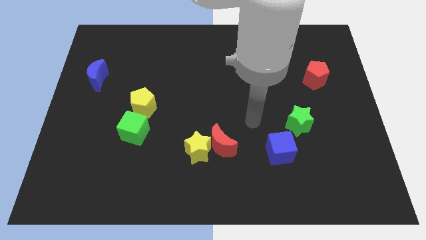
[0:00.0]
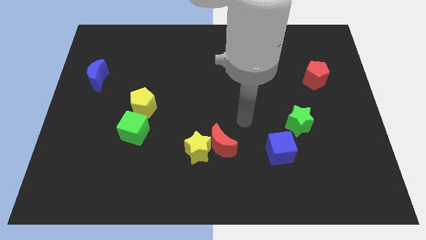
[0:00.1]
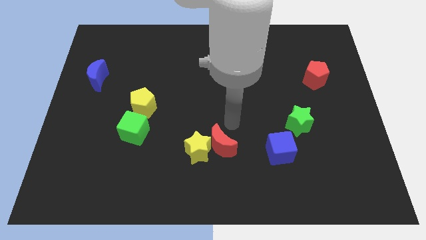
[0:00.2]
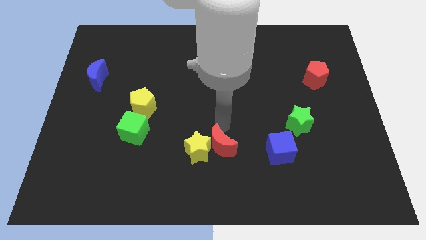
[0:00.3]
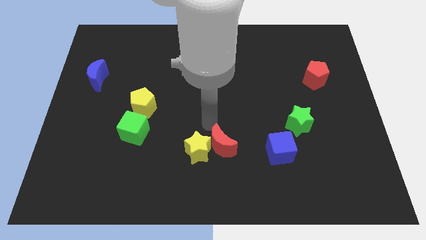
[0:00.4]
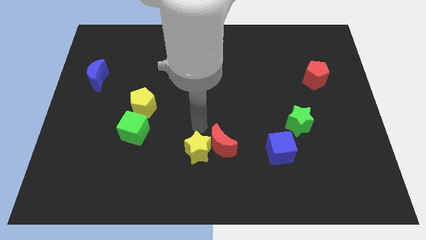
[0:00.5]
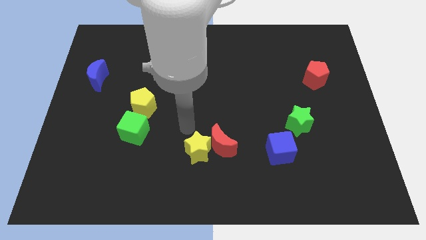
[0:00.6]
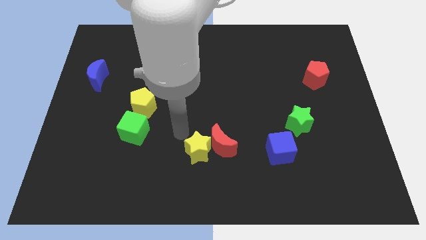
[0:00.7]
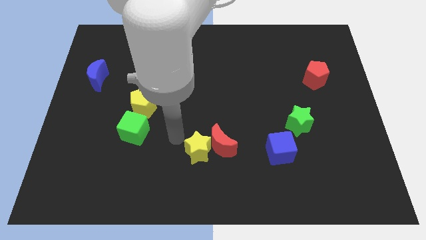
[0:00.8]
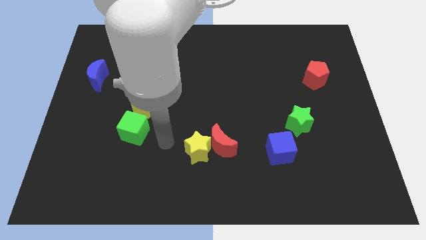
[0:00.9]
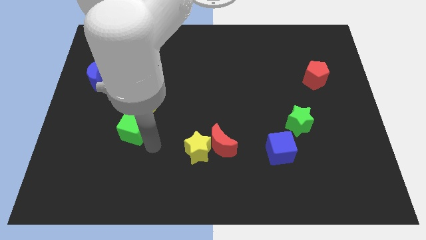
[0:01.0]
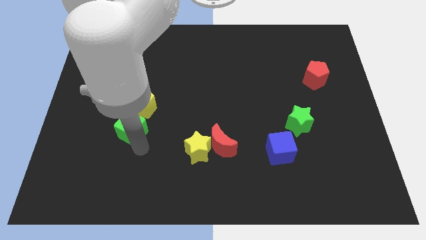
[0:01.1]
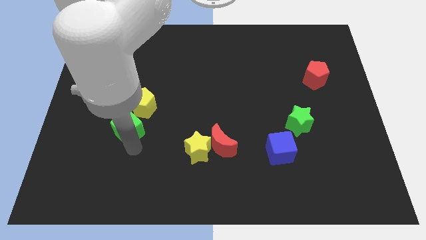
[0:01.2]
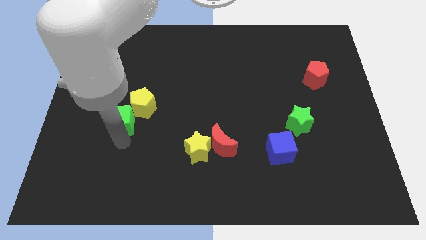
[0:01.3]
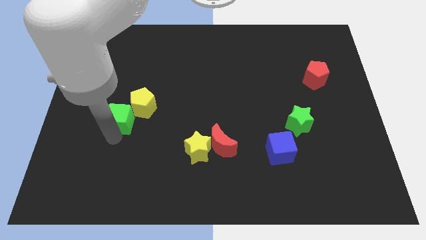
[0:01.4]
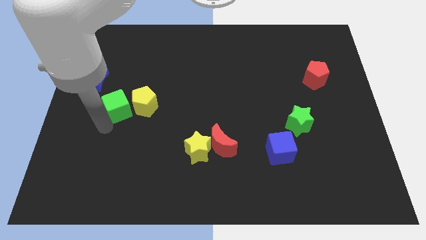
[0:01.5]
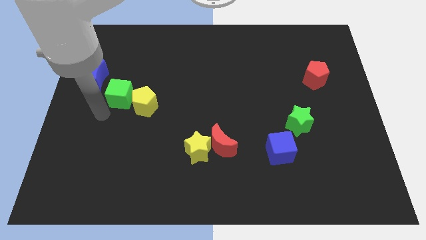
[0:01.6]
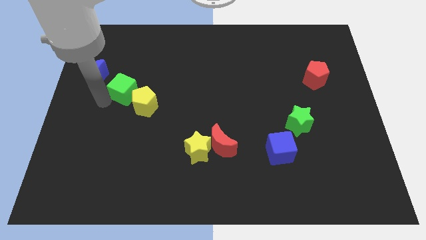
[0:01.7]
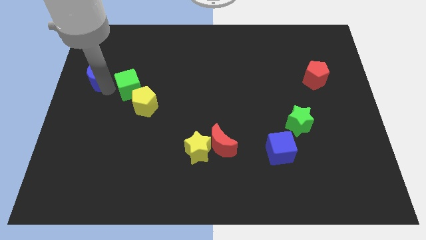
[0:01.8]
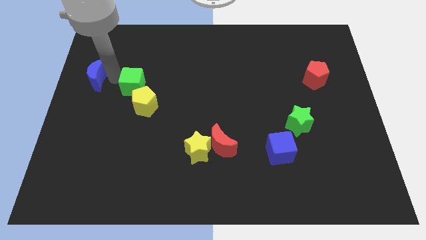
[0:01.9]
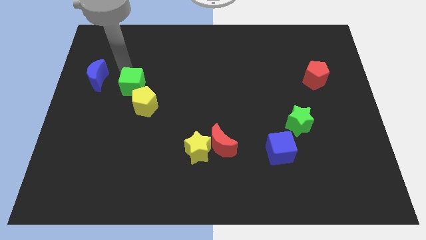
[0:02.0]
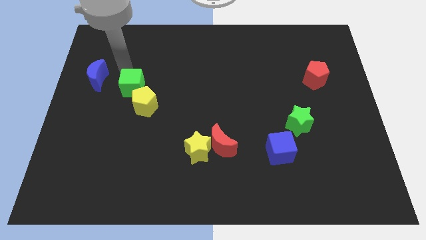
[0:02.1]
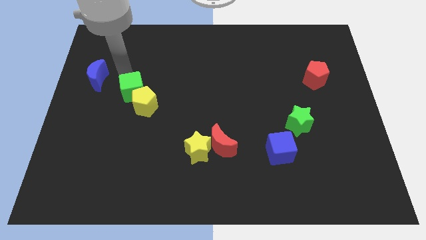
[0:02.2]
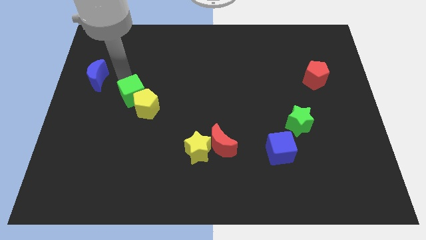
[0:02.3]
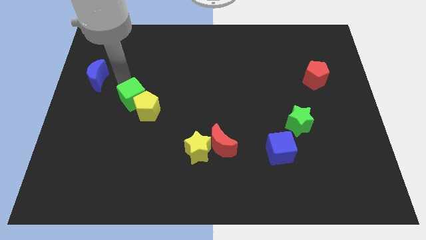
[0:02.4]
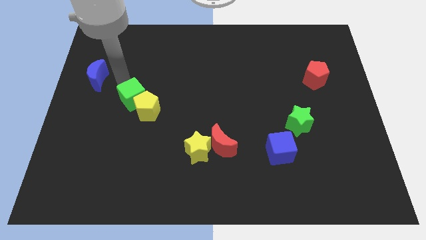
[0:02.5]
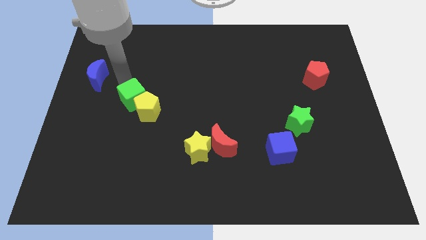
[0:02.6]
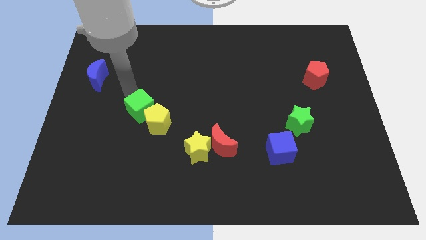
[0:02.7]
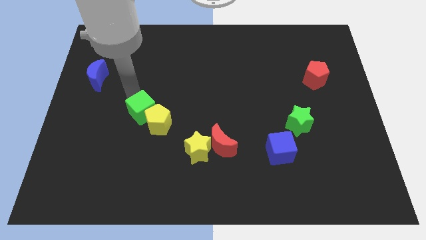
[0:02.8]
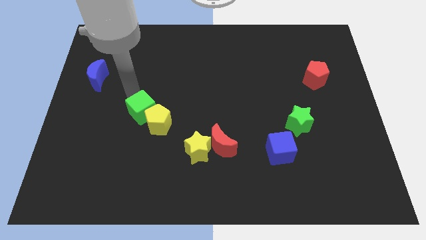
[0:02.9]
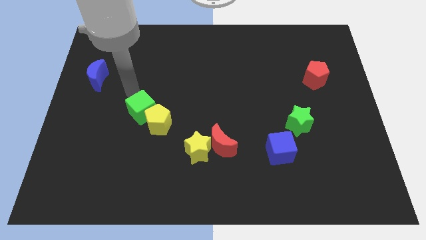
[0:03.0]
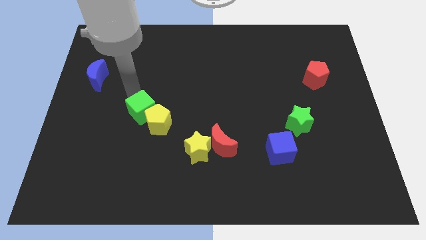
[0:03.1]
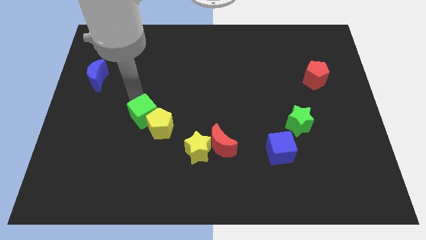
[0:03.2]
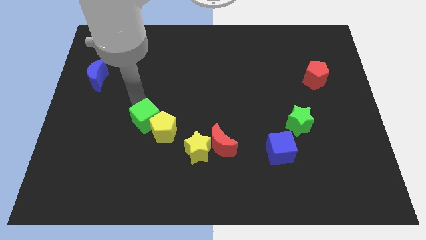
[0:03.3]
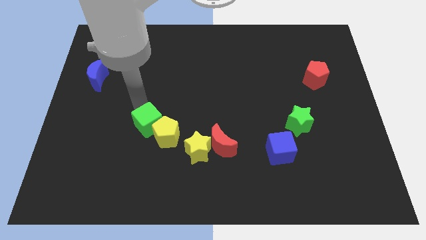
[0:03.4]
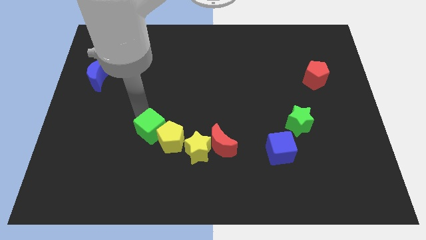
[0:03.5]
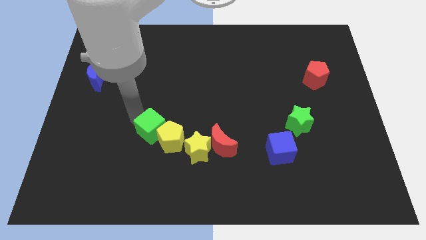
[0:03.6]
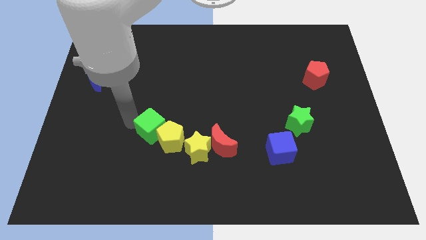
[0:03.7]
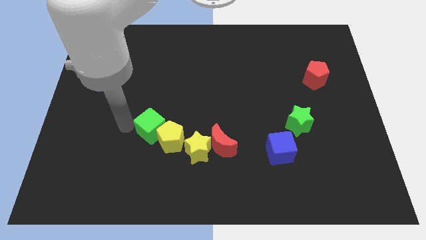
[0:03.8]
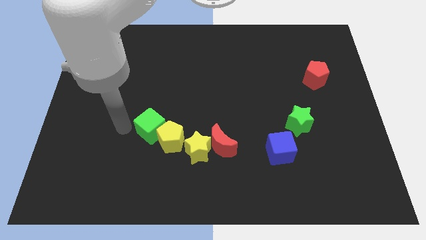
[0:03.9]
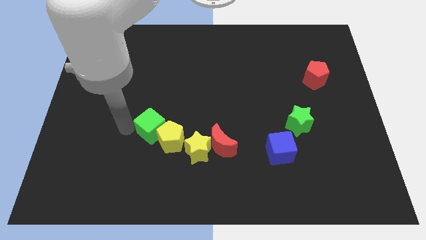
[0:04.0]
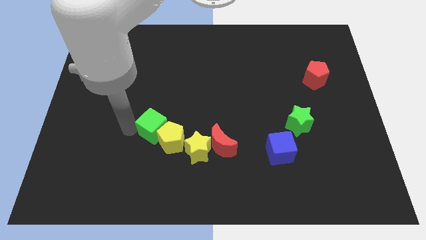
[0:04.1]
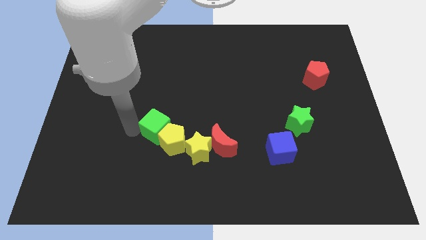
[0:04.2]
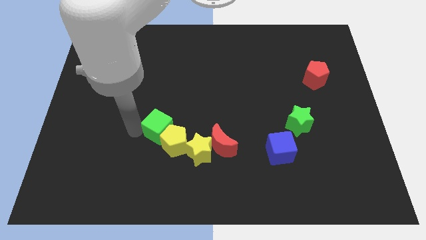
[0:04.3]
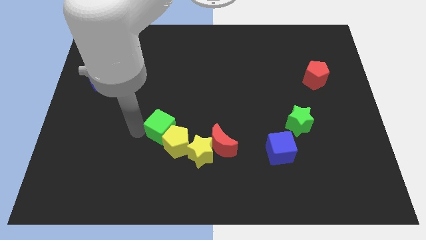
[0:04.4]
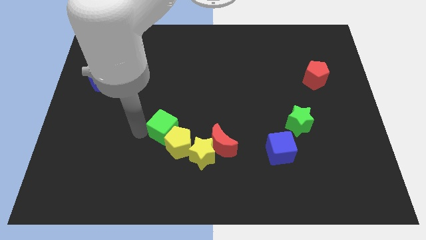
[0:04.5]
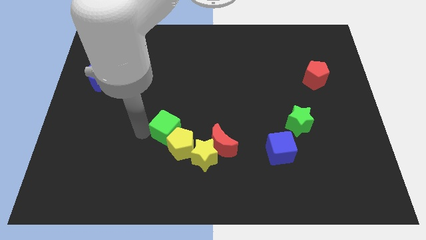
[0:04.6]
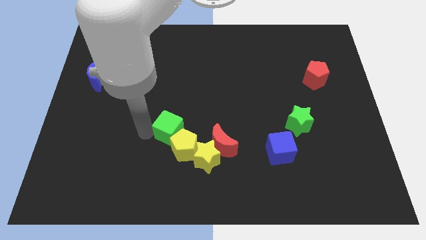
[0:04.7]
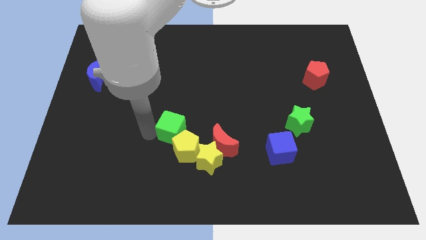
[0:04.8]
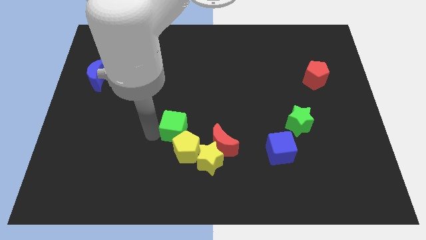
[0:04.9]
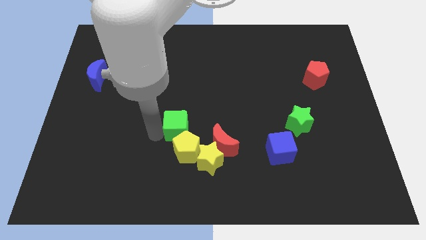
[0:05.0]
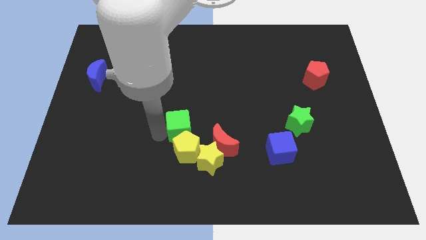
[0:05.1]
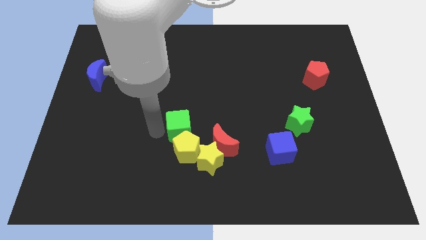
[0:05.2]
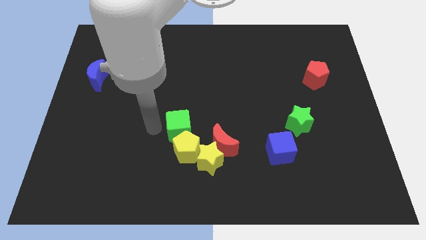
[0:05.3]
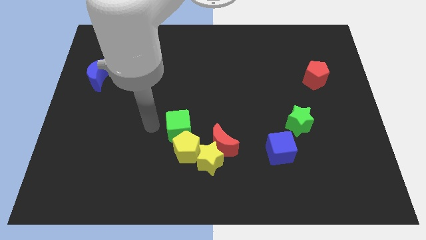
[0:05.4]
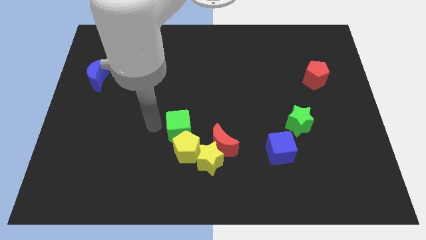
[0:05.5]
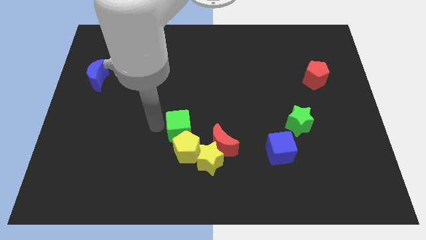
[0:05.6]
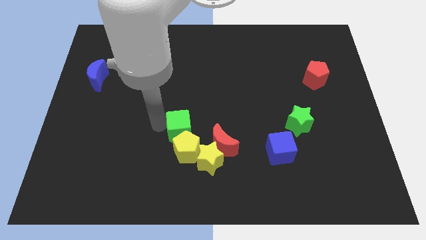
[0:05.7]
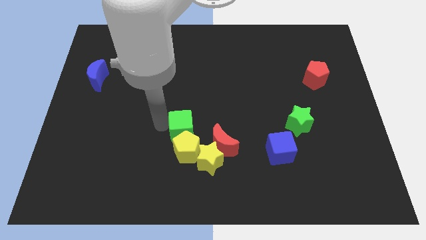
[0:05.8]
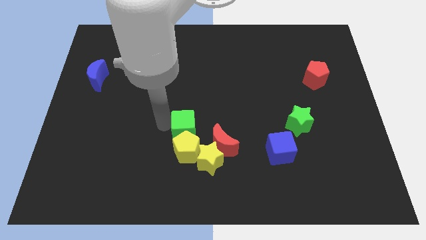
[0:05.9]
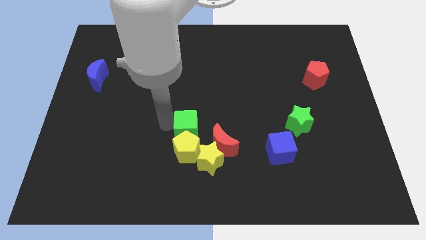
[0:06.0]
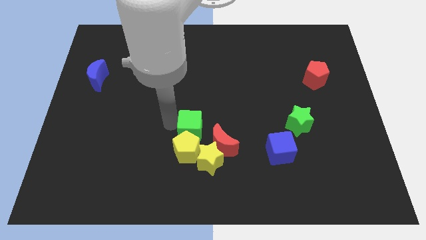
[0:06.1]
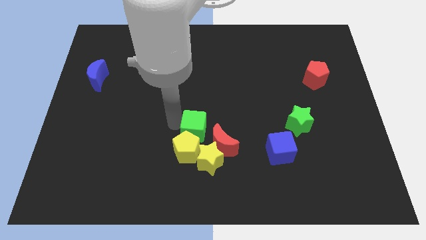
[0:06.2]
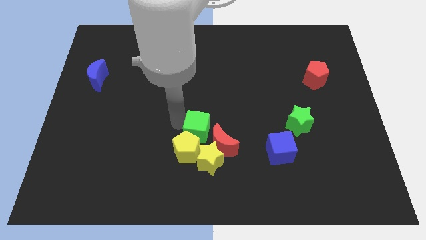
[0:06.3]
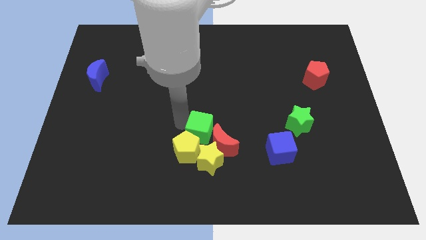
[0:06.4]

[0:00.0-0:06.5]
move the green cube towards the red moon

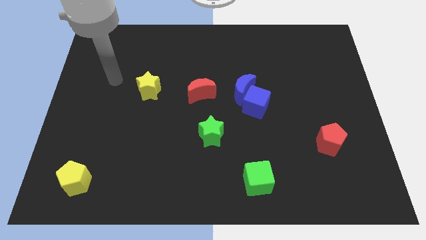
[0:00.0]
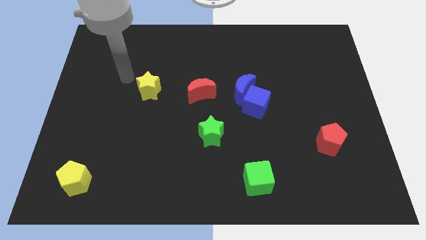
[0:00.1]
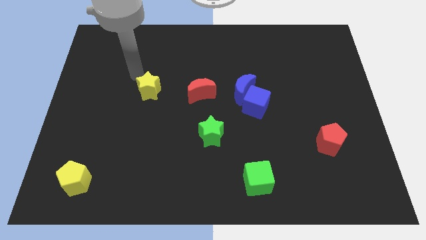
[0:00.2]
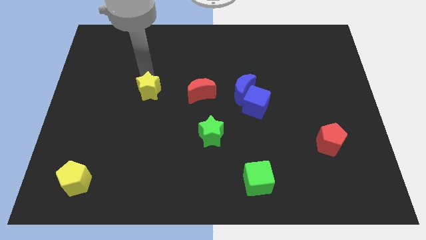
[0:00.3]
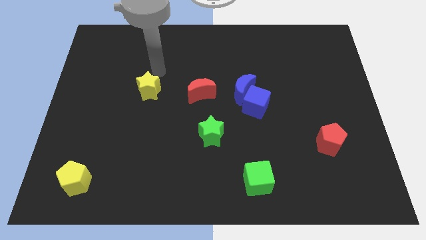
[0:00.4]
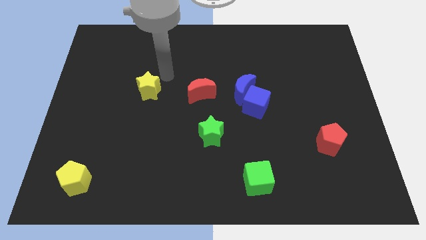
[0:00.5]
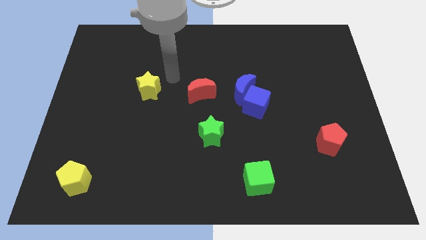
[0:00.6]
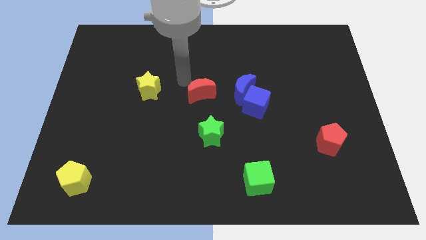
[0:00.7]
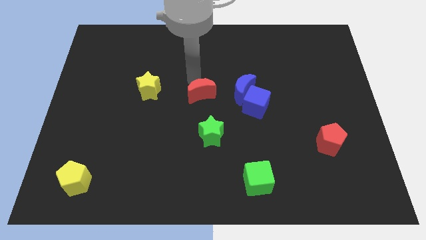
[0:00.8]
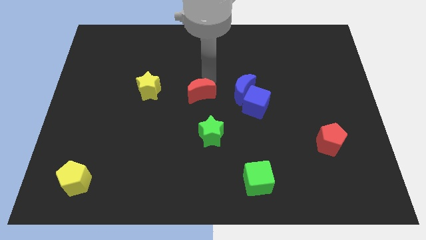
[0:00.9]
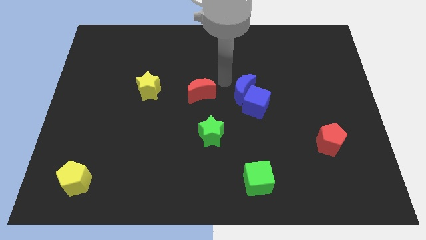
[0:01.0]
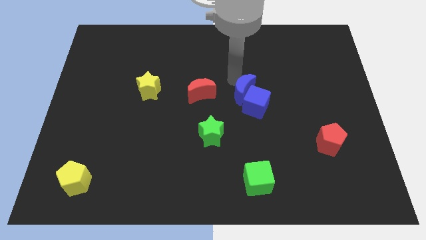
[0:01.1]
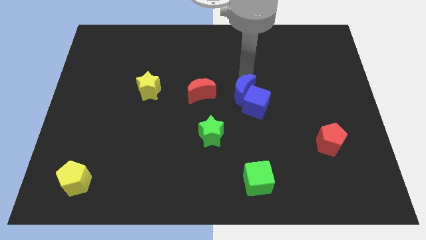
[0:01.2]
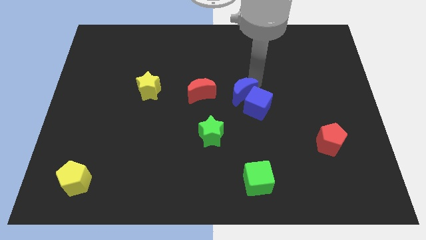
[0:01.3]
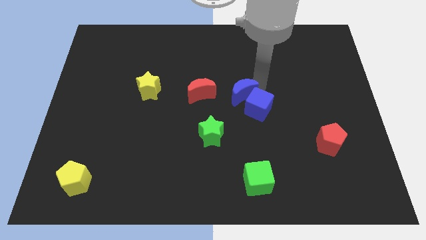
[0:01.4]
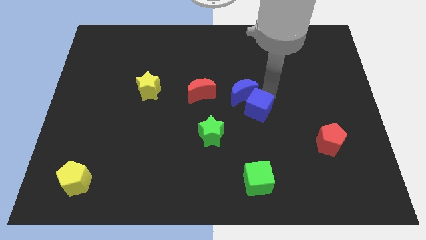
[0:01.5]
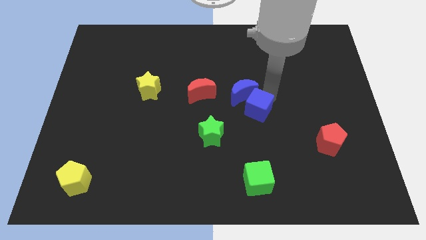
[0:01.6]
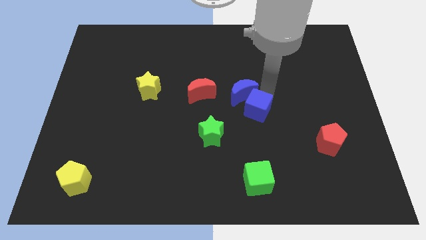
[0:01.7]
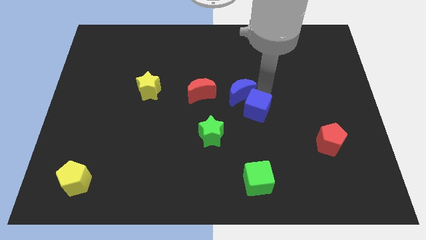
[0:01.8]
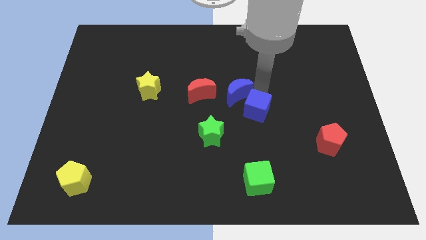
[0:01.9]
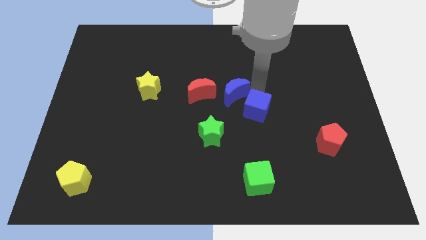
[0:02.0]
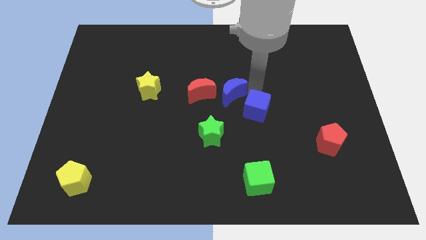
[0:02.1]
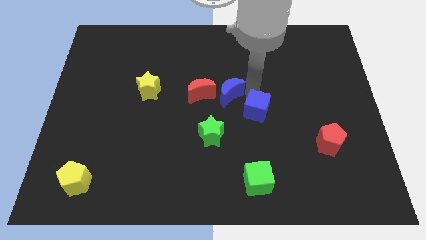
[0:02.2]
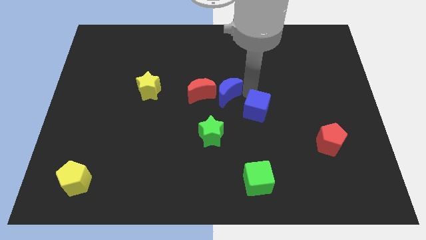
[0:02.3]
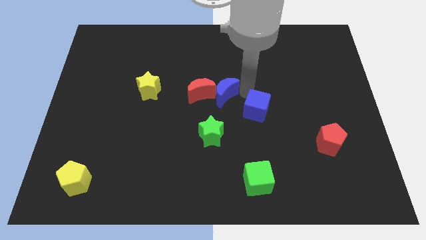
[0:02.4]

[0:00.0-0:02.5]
move the blue moon towards the red moon
